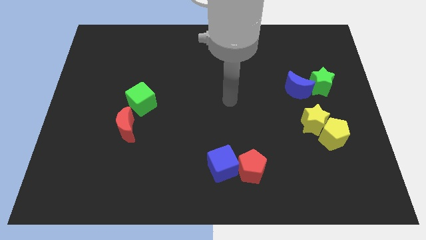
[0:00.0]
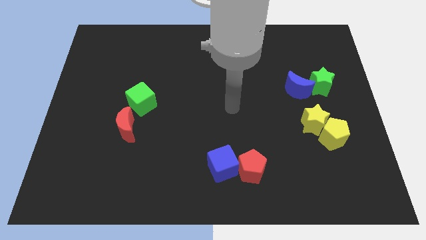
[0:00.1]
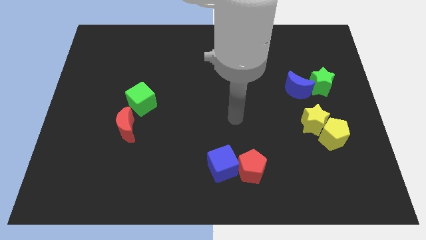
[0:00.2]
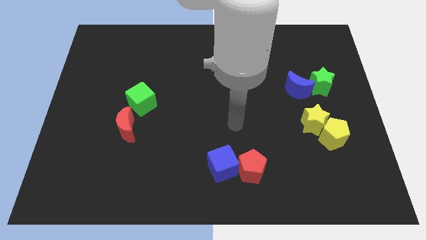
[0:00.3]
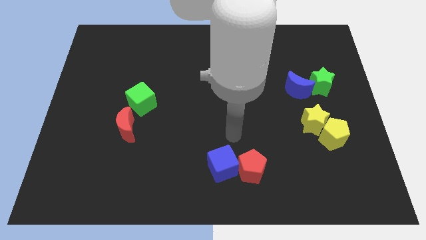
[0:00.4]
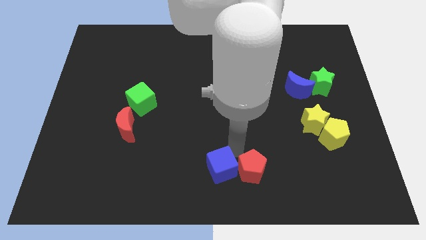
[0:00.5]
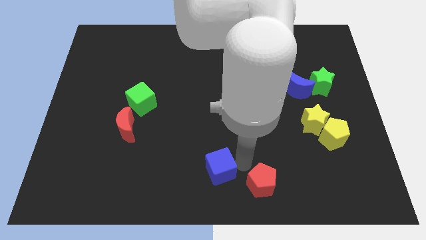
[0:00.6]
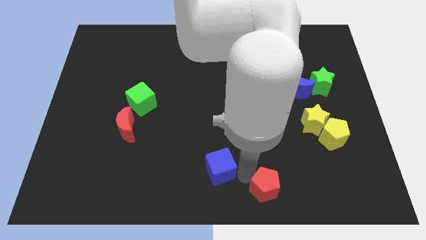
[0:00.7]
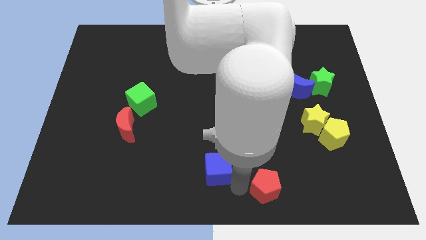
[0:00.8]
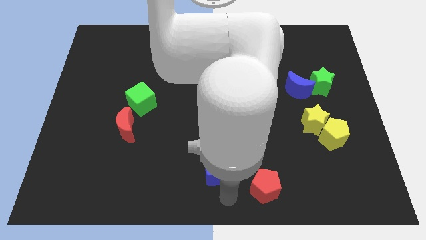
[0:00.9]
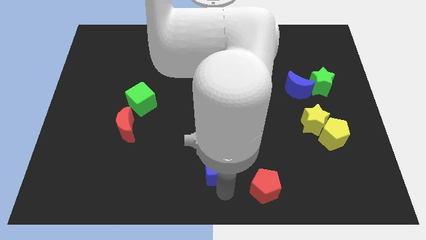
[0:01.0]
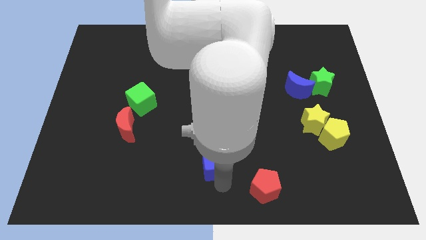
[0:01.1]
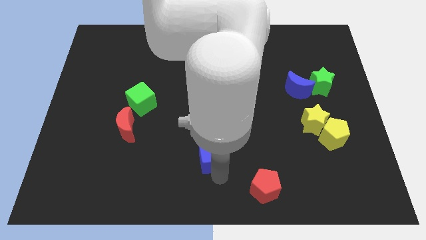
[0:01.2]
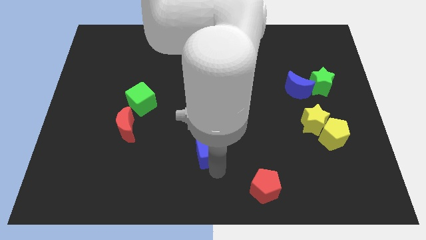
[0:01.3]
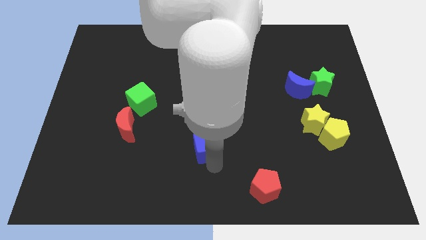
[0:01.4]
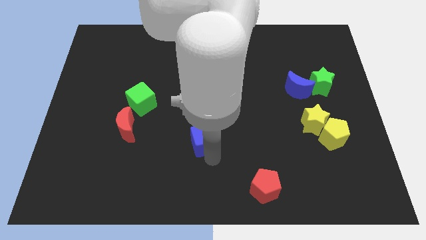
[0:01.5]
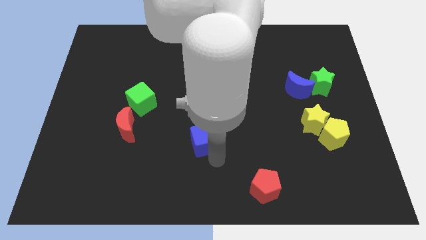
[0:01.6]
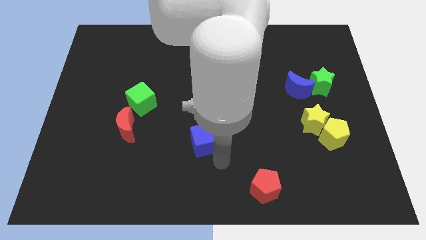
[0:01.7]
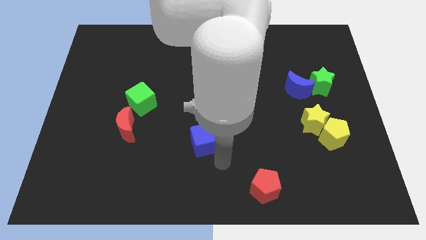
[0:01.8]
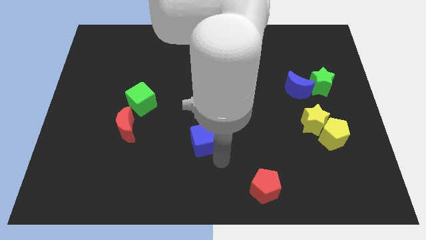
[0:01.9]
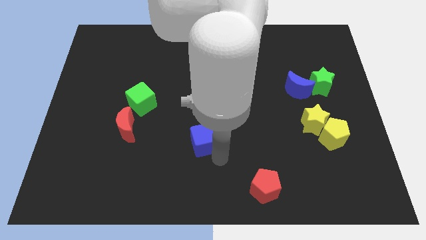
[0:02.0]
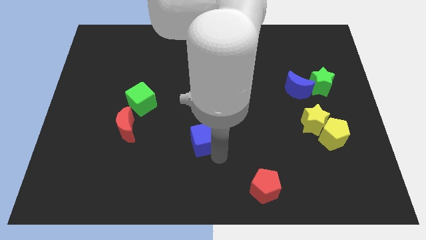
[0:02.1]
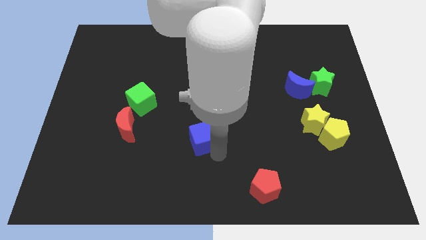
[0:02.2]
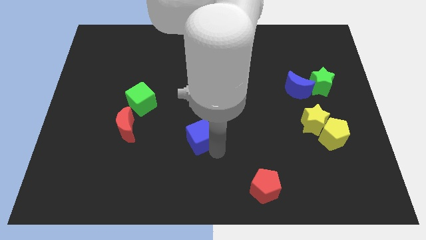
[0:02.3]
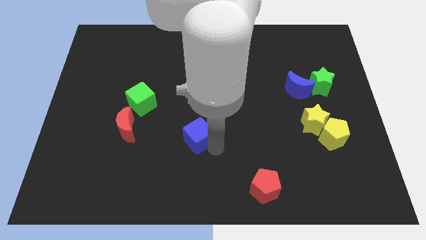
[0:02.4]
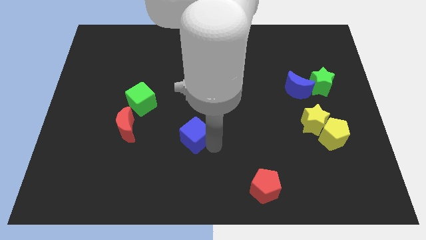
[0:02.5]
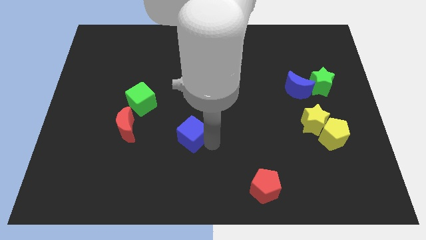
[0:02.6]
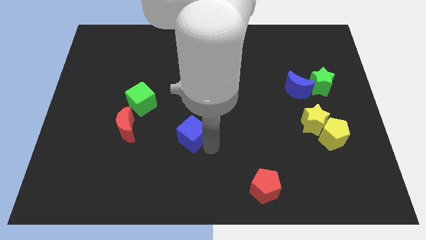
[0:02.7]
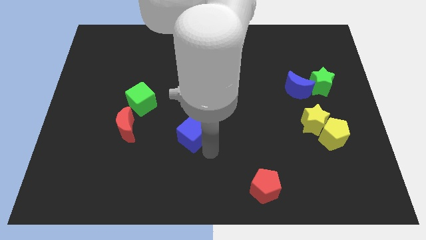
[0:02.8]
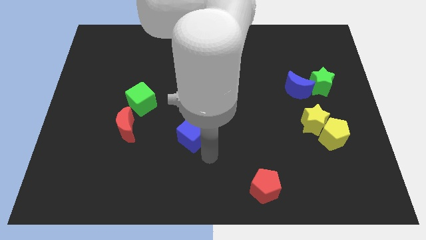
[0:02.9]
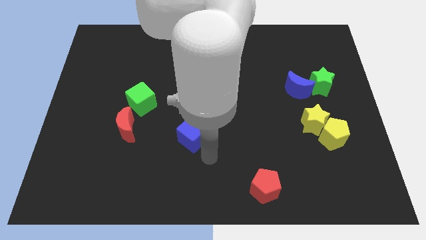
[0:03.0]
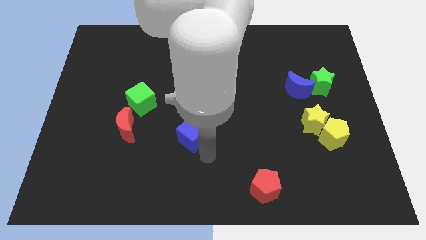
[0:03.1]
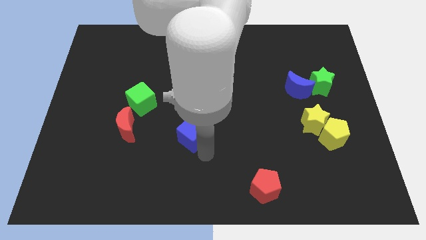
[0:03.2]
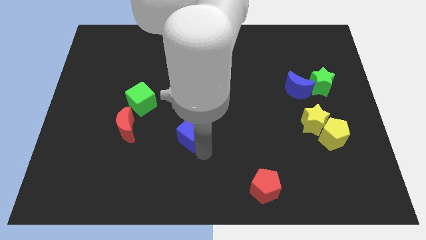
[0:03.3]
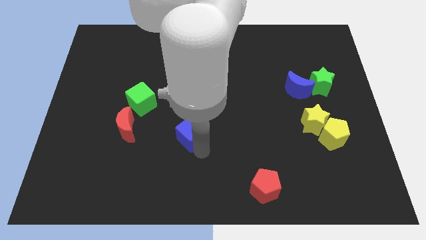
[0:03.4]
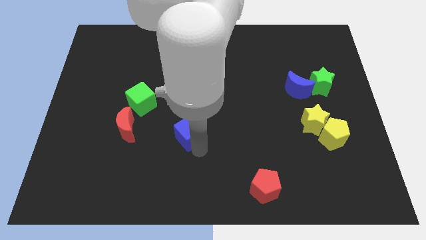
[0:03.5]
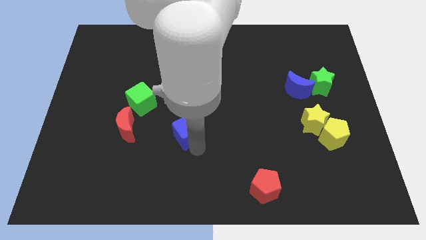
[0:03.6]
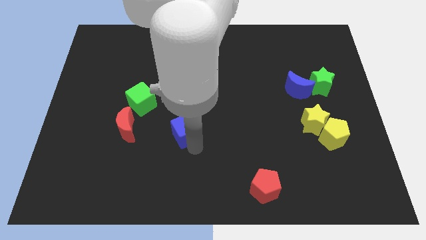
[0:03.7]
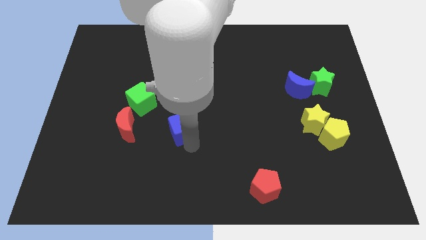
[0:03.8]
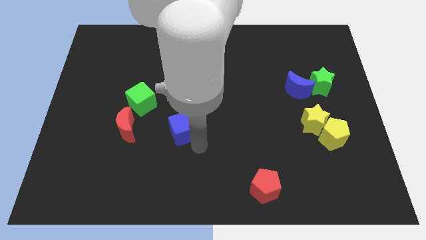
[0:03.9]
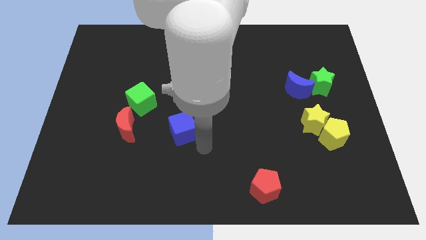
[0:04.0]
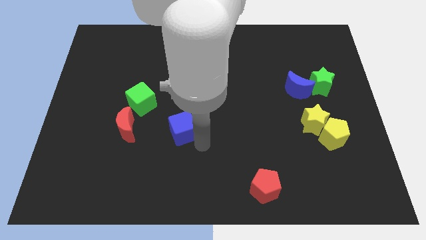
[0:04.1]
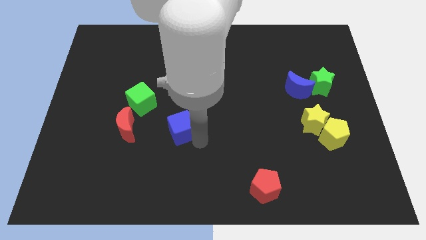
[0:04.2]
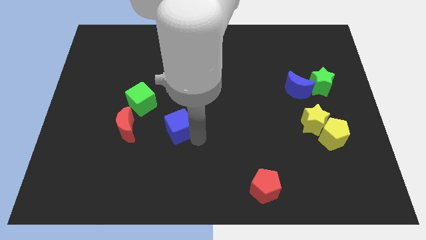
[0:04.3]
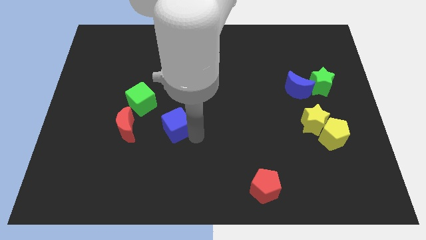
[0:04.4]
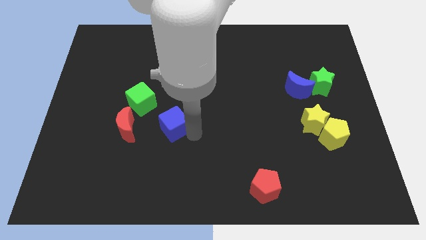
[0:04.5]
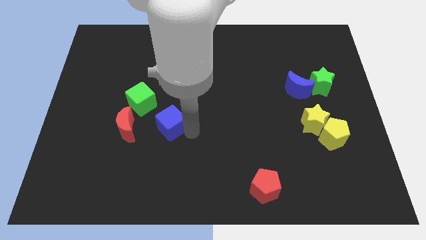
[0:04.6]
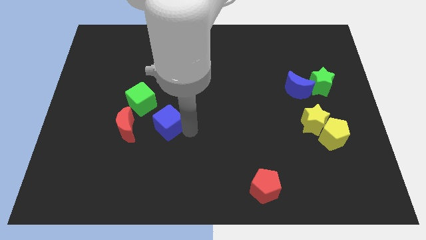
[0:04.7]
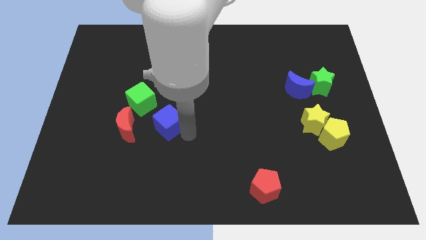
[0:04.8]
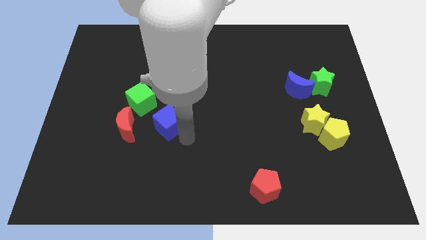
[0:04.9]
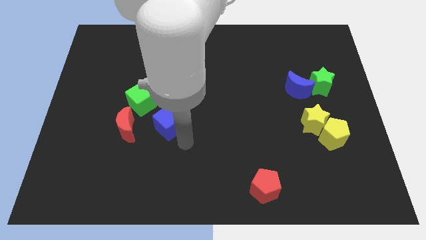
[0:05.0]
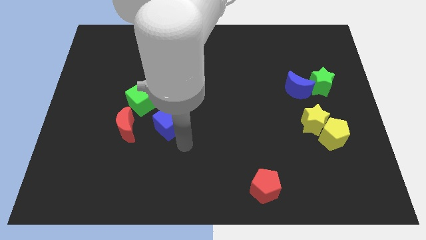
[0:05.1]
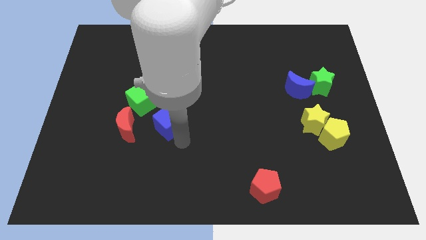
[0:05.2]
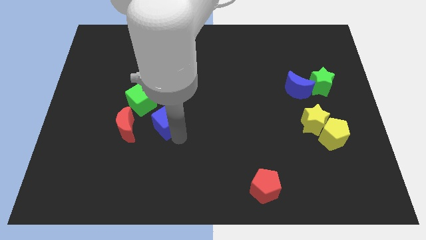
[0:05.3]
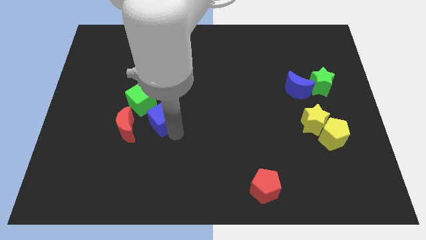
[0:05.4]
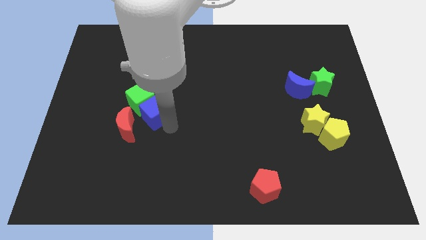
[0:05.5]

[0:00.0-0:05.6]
put the blue cube close to the green cube

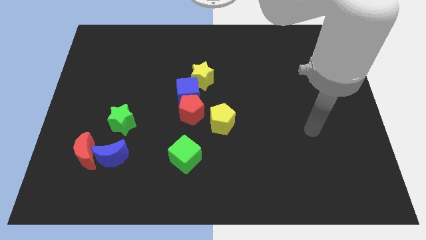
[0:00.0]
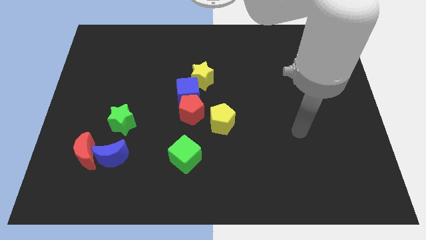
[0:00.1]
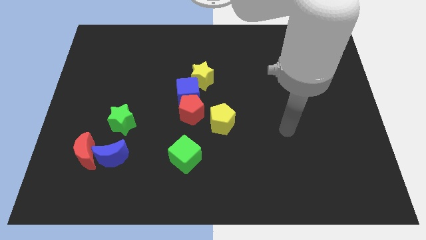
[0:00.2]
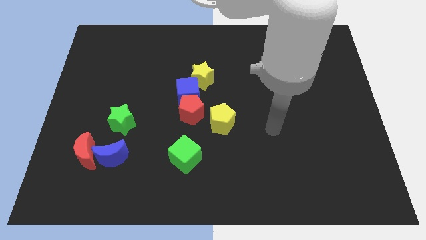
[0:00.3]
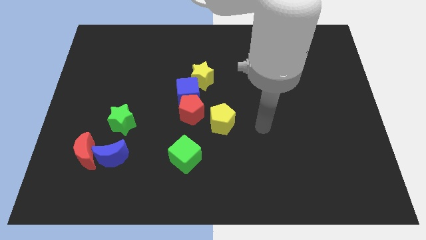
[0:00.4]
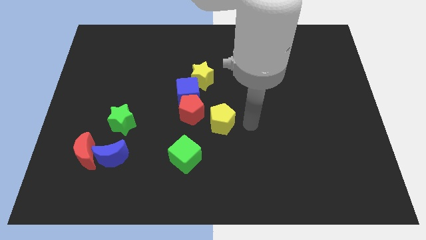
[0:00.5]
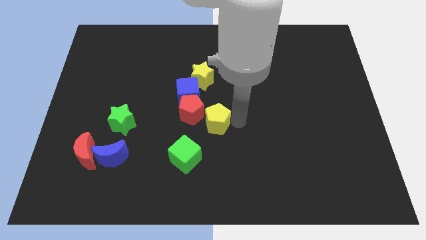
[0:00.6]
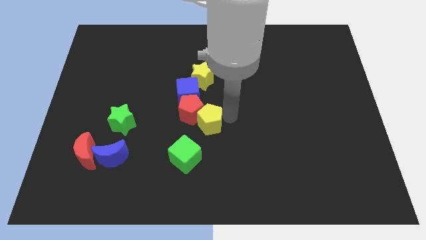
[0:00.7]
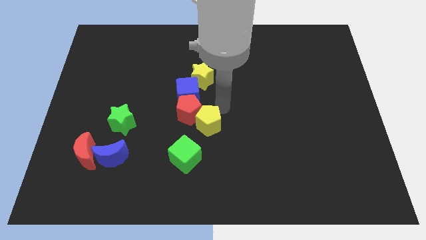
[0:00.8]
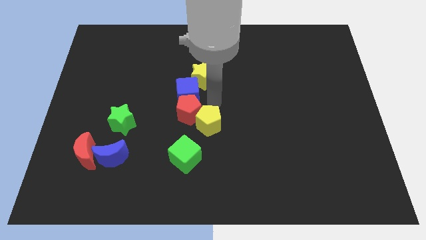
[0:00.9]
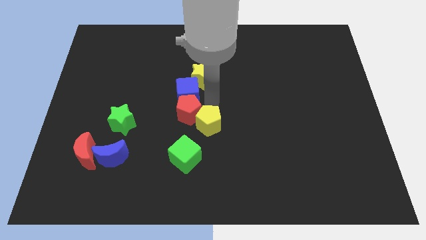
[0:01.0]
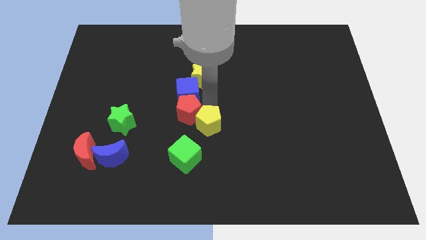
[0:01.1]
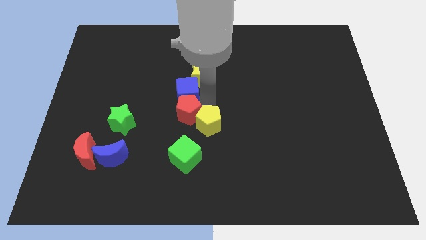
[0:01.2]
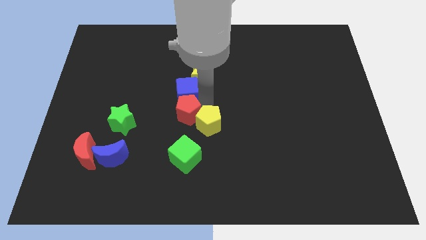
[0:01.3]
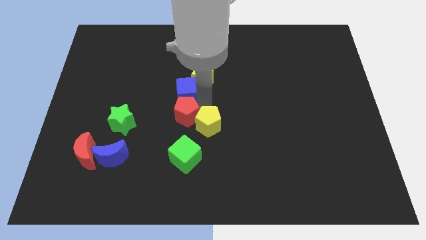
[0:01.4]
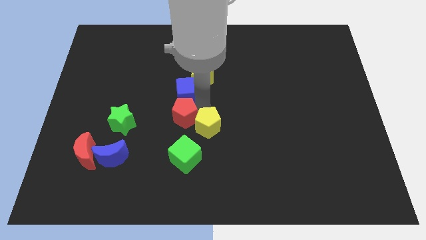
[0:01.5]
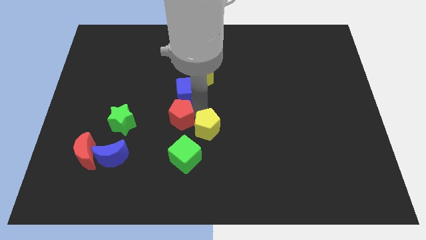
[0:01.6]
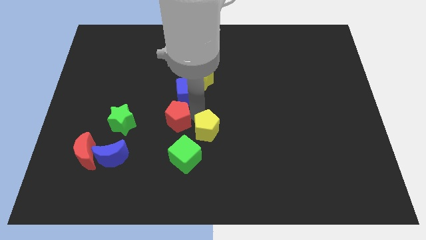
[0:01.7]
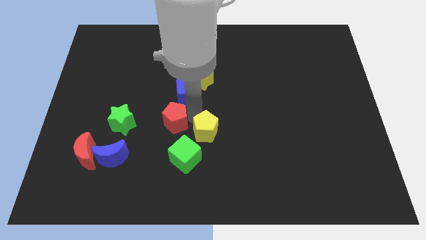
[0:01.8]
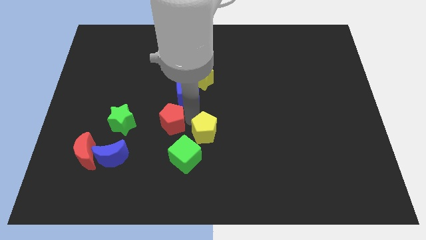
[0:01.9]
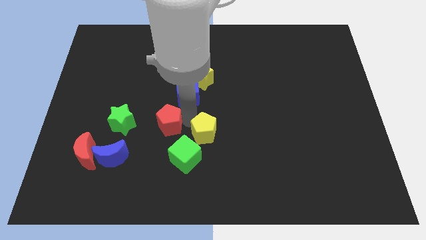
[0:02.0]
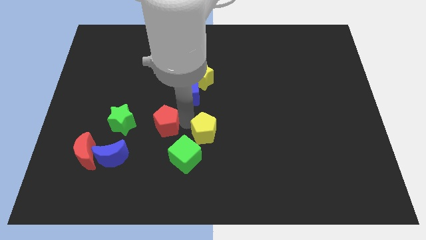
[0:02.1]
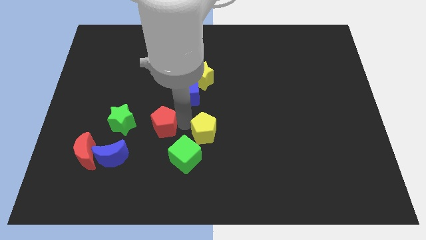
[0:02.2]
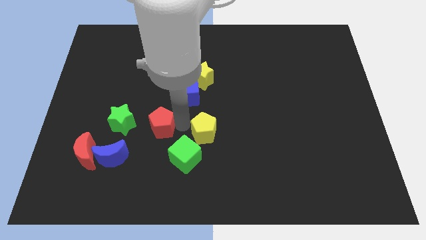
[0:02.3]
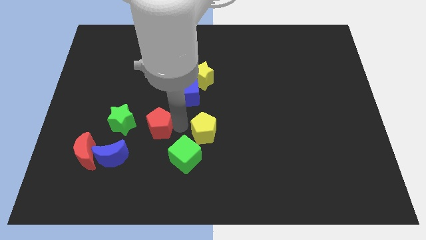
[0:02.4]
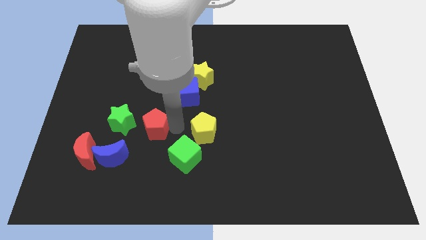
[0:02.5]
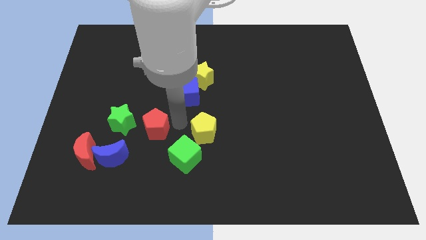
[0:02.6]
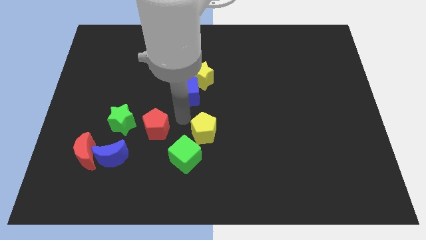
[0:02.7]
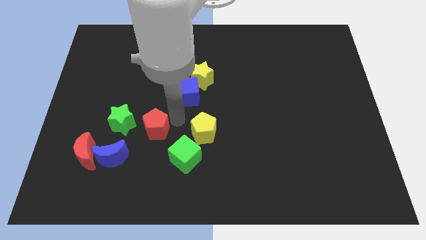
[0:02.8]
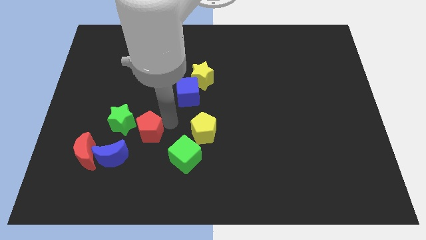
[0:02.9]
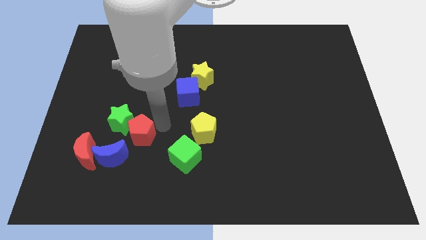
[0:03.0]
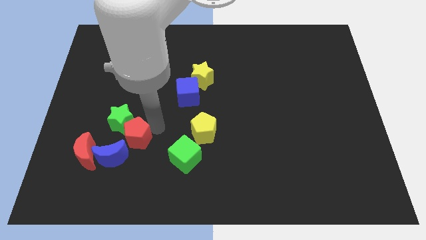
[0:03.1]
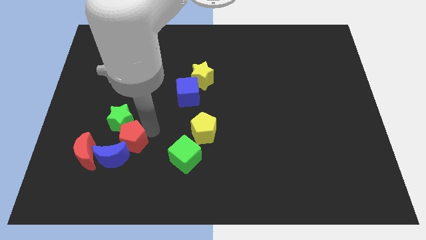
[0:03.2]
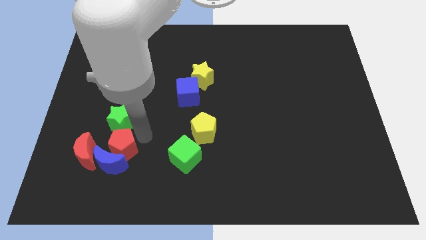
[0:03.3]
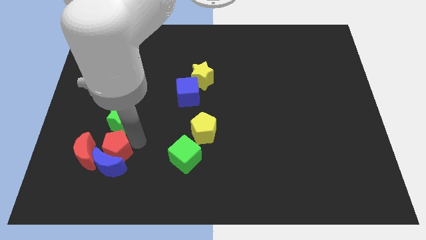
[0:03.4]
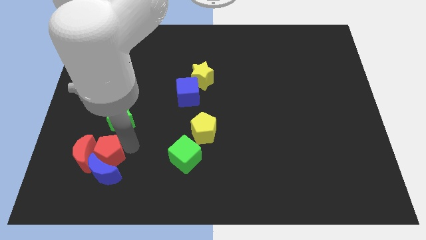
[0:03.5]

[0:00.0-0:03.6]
push the red pentagon close to the red moon
